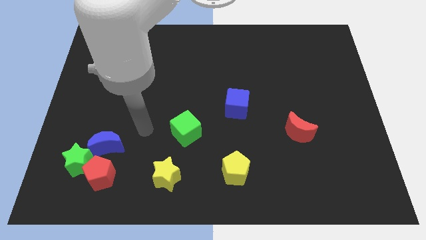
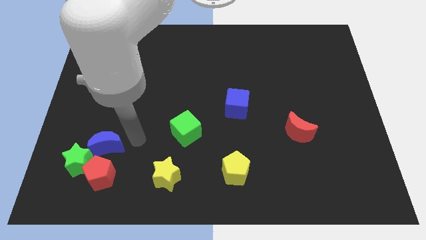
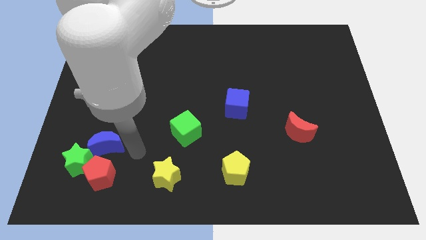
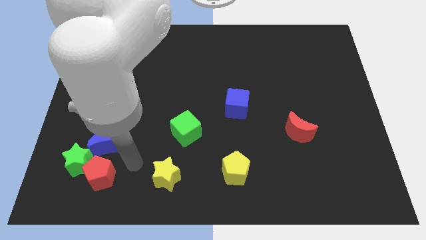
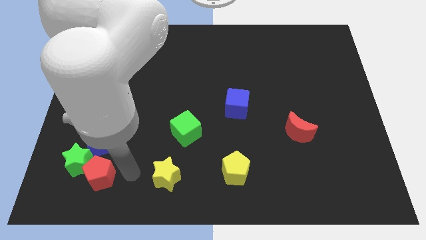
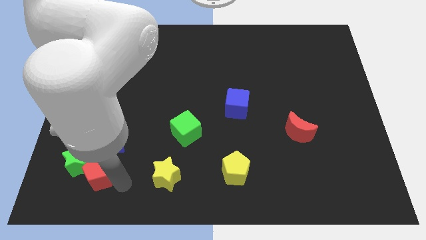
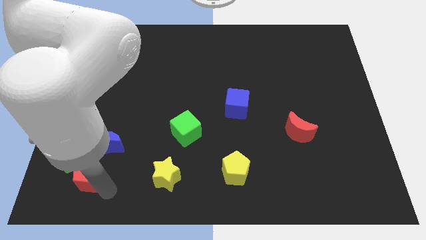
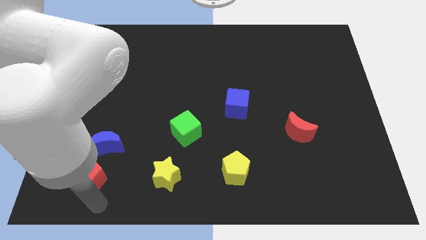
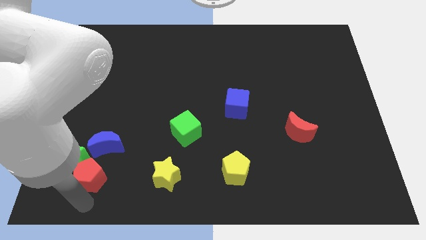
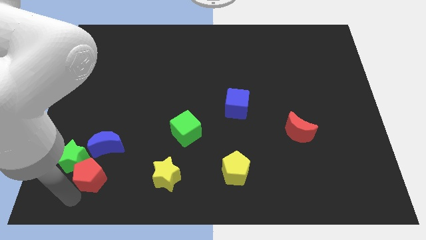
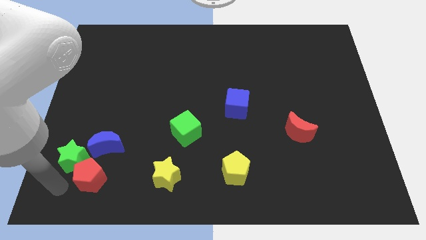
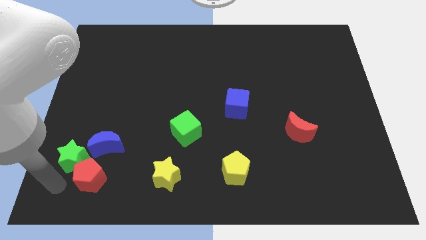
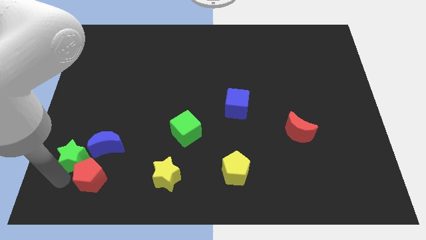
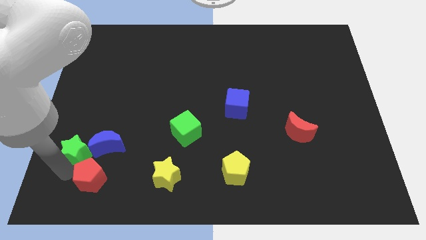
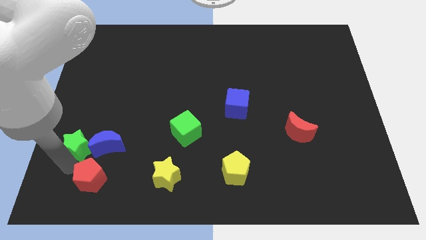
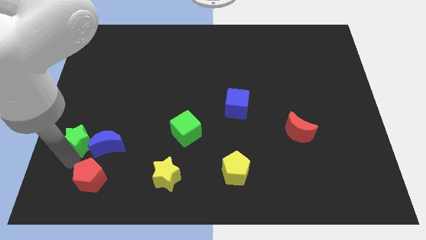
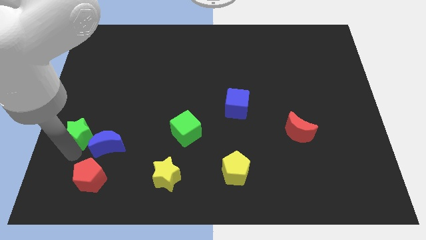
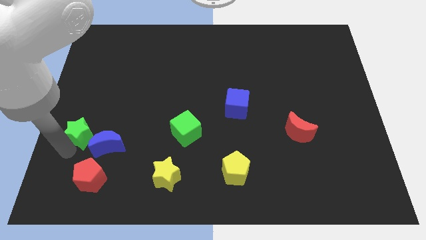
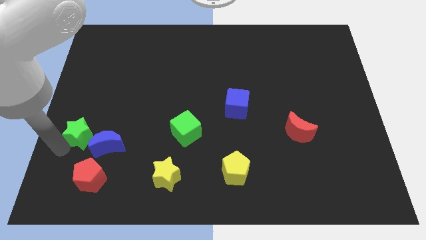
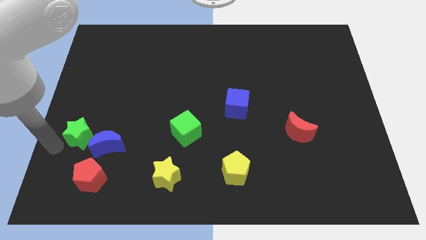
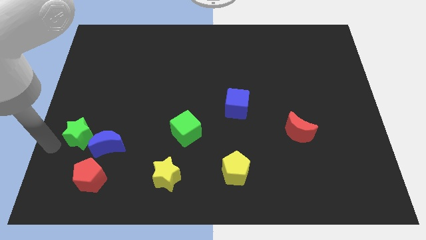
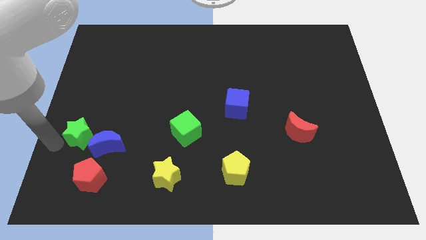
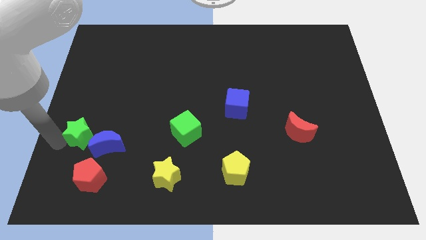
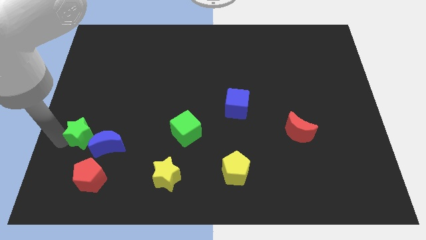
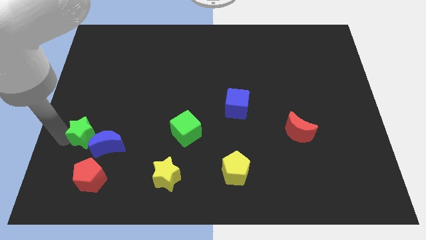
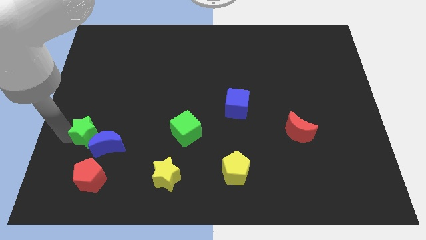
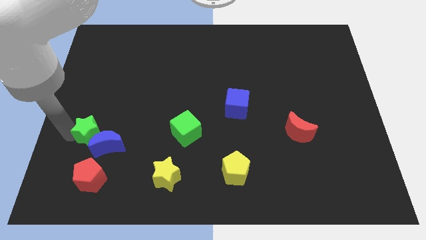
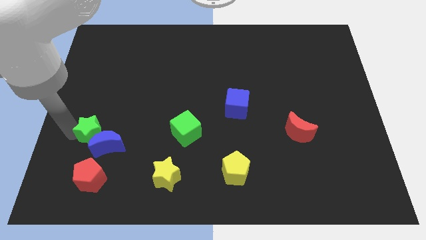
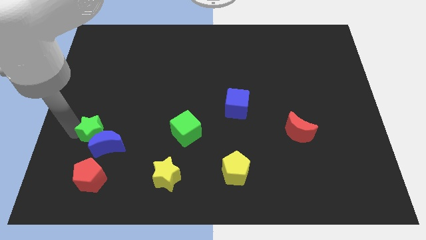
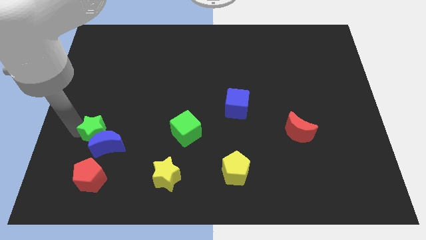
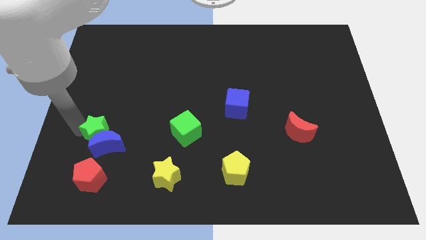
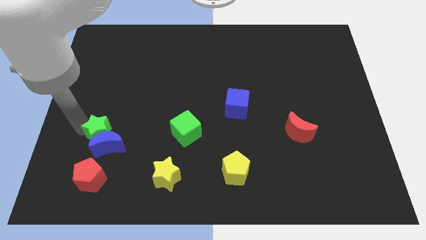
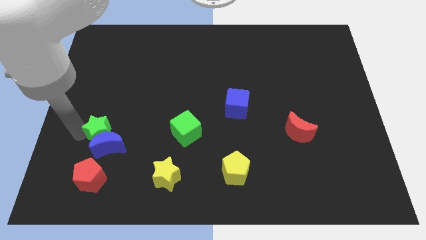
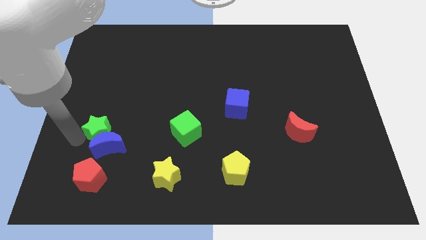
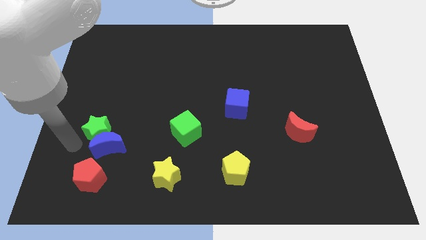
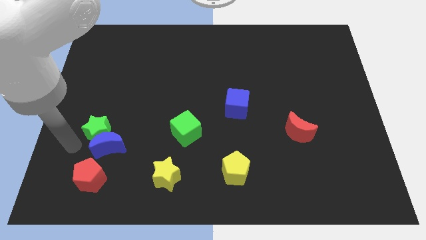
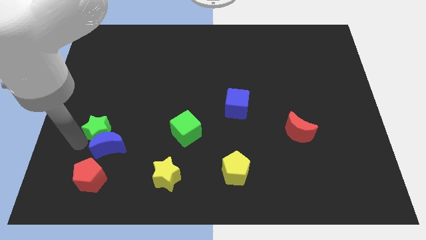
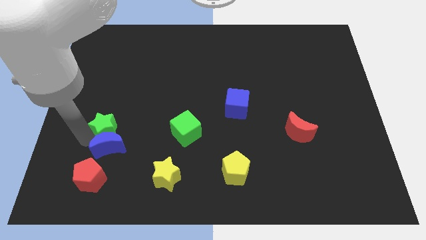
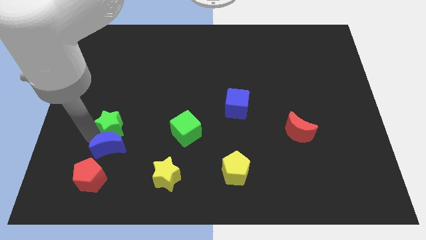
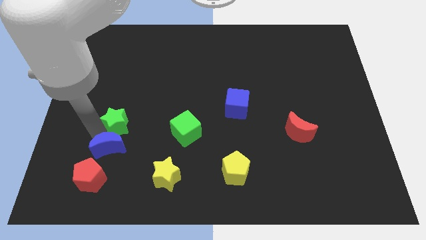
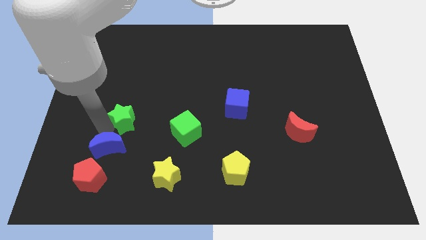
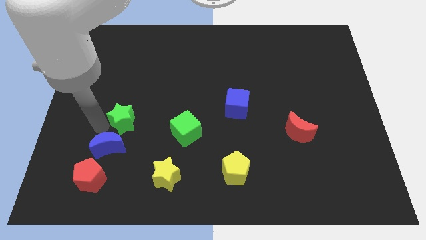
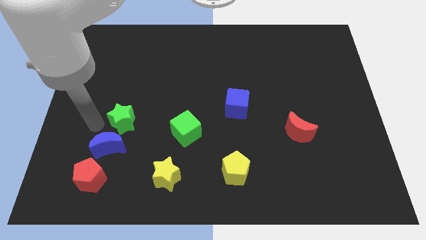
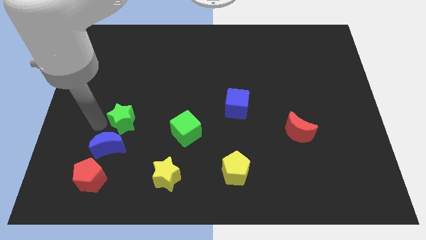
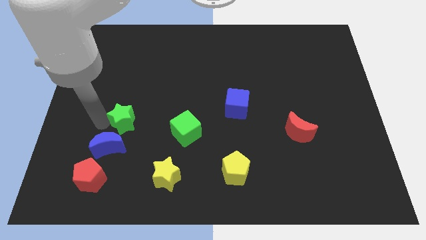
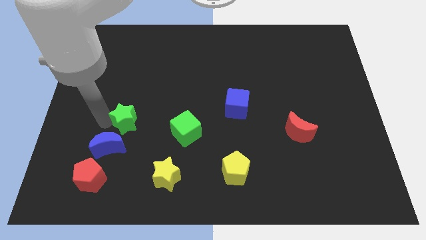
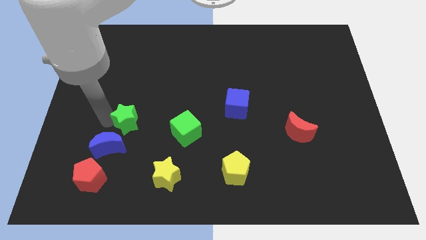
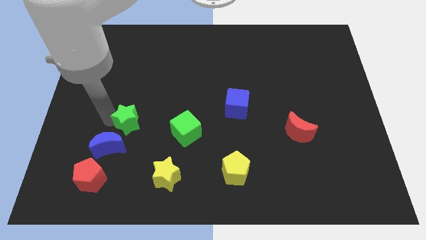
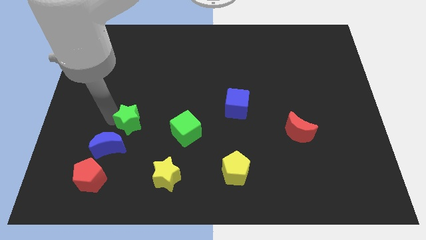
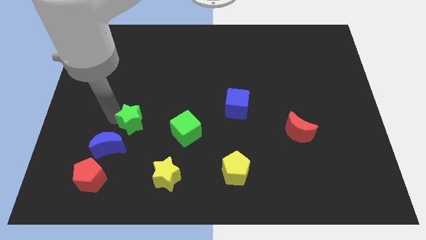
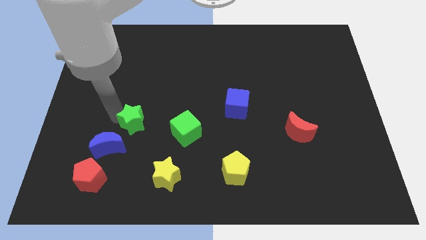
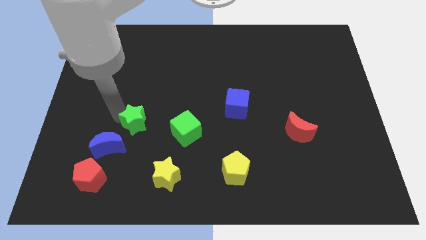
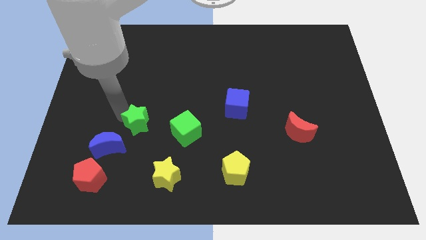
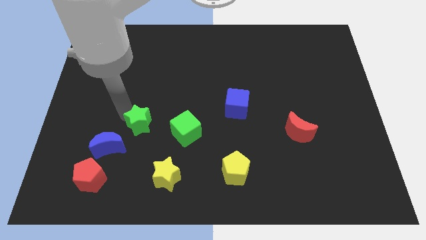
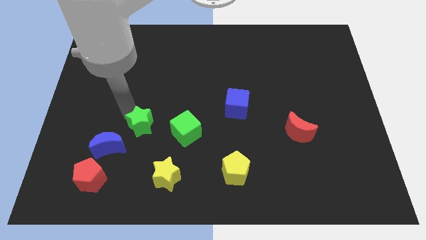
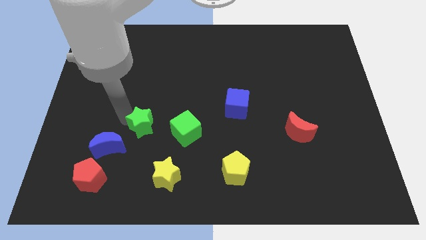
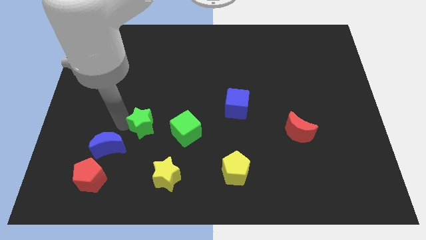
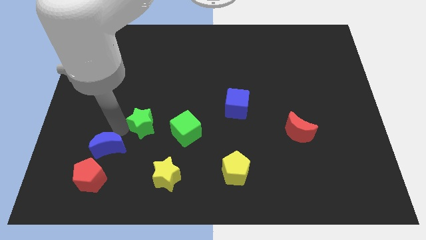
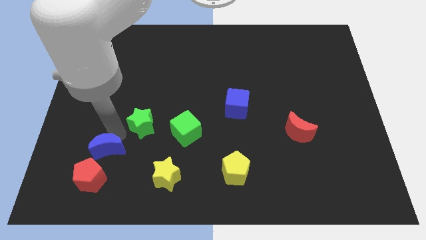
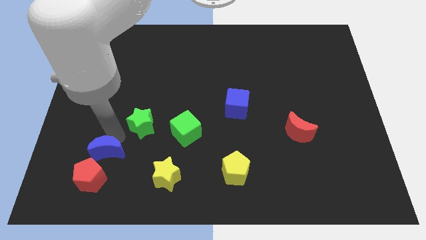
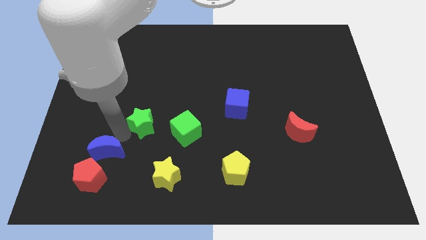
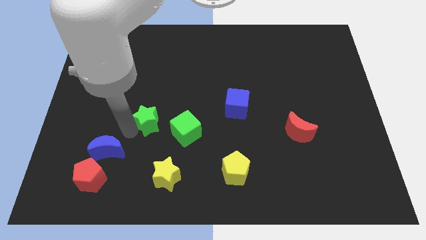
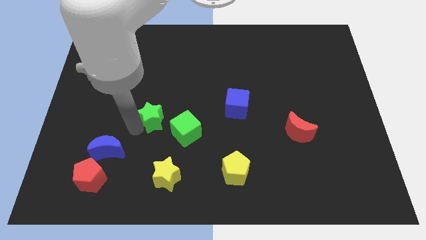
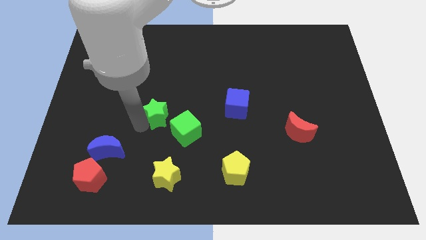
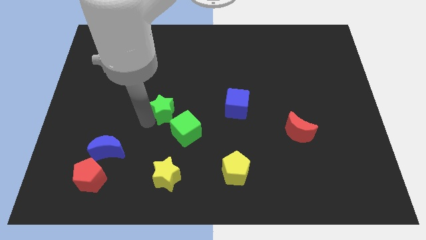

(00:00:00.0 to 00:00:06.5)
move the green star to the center of the board
